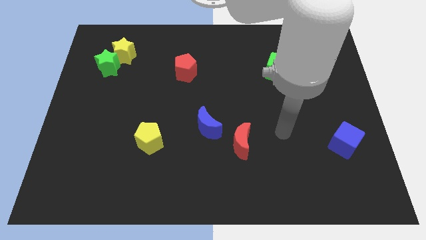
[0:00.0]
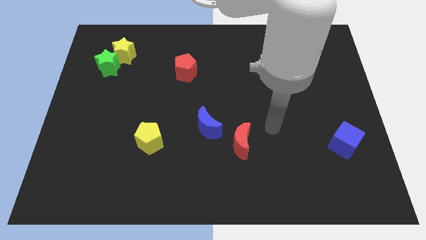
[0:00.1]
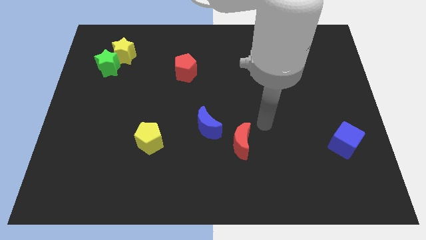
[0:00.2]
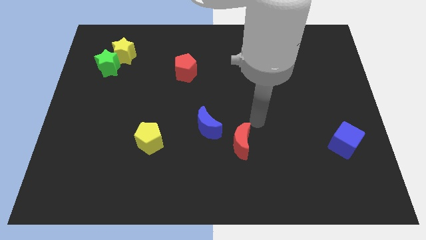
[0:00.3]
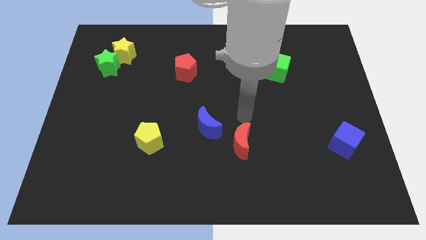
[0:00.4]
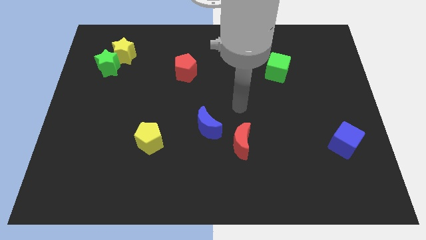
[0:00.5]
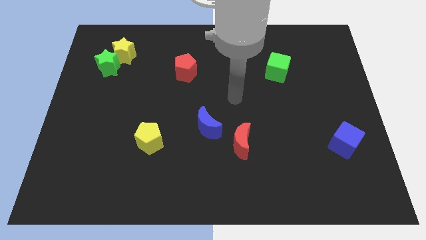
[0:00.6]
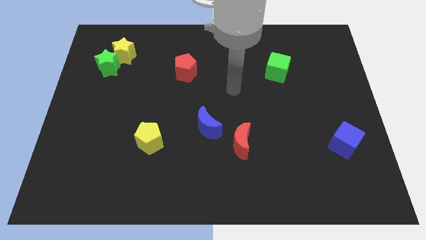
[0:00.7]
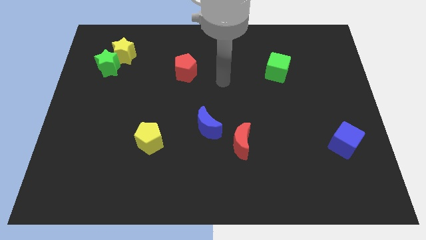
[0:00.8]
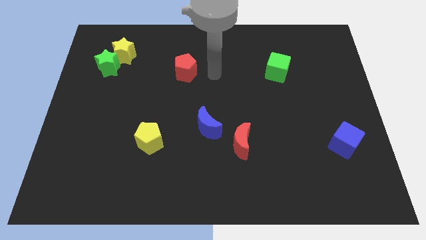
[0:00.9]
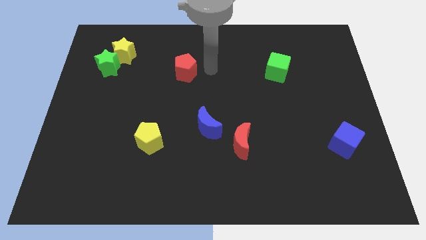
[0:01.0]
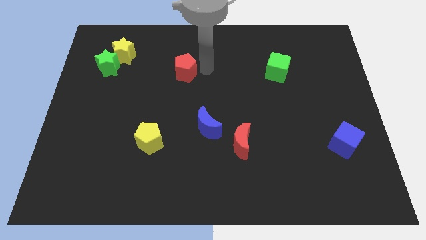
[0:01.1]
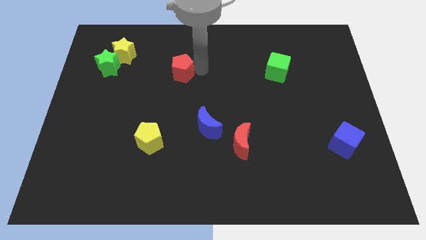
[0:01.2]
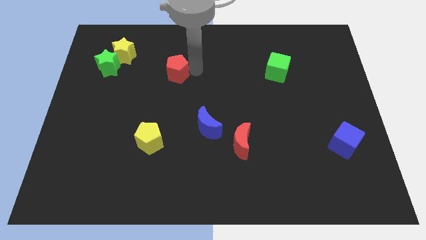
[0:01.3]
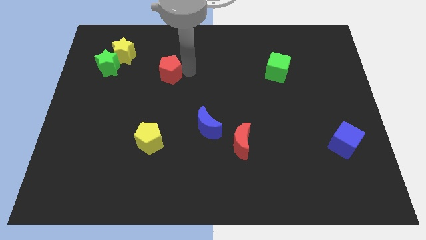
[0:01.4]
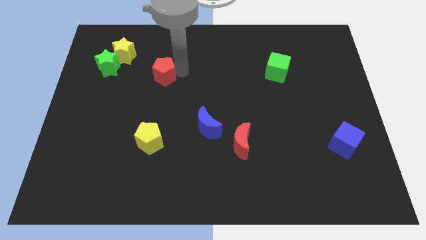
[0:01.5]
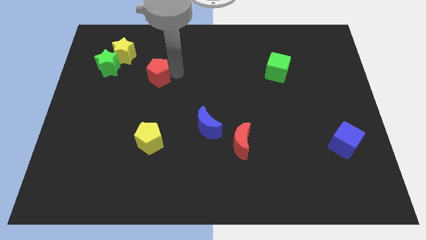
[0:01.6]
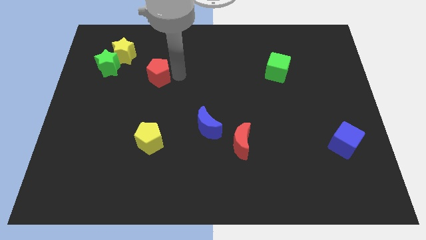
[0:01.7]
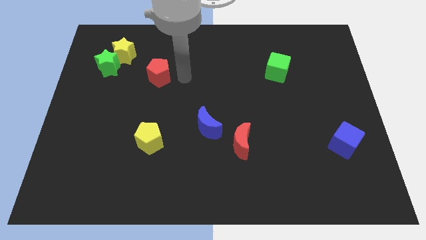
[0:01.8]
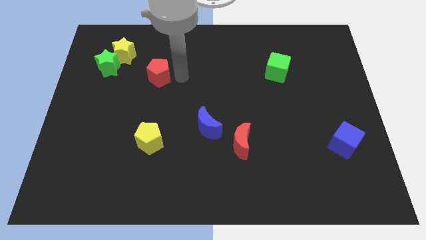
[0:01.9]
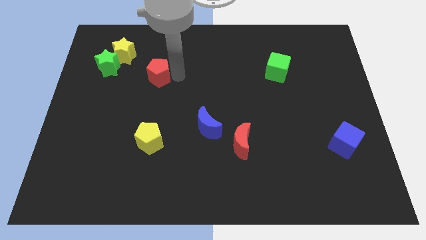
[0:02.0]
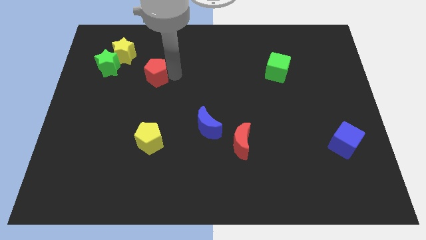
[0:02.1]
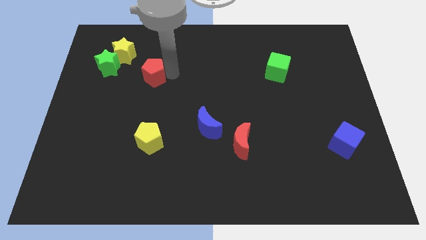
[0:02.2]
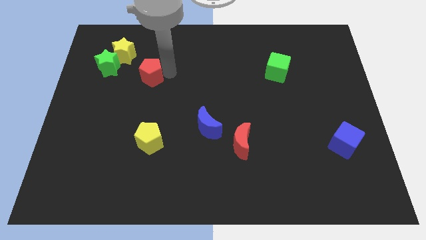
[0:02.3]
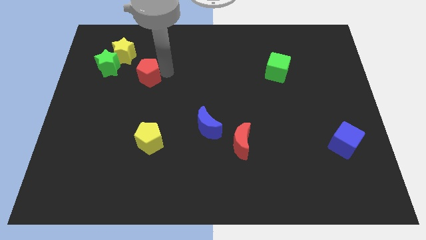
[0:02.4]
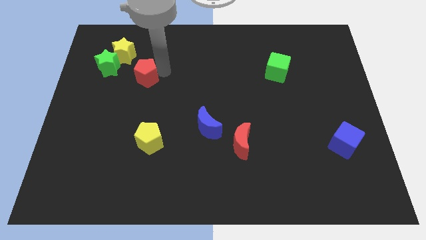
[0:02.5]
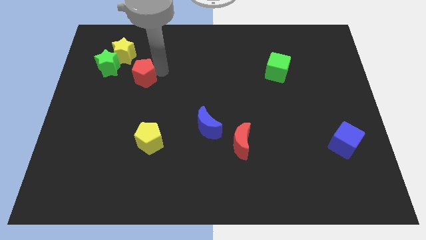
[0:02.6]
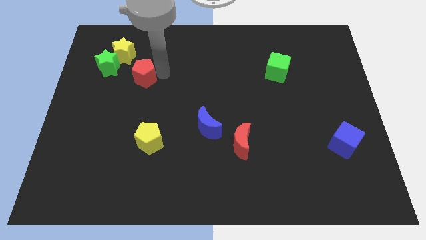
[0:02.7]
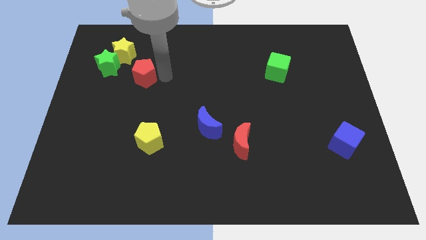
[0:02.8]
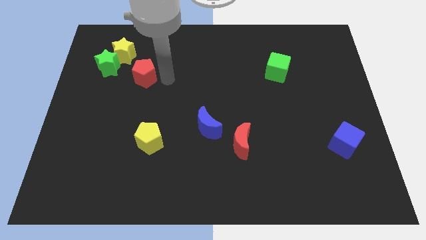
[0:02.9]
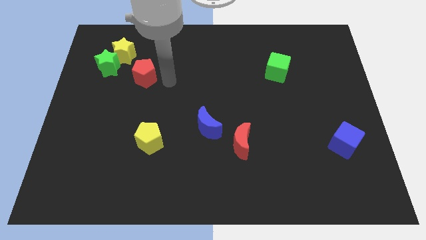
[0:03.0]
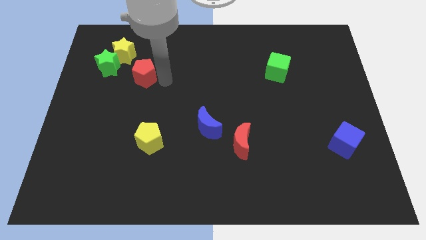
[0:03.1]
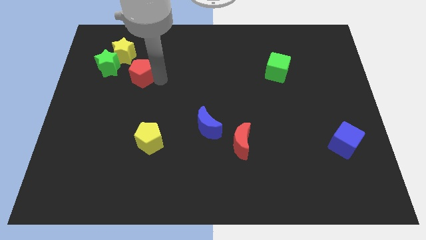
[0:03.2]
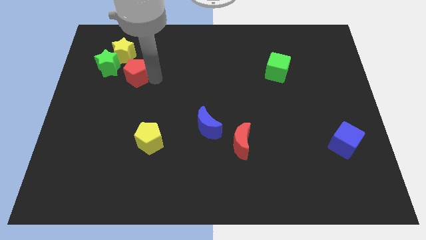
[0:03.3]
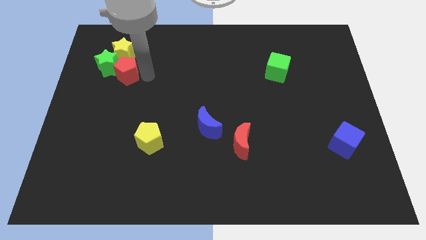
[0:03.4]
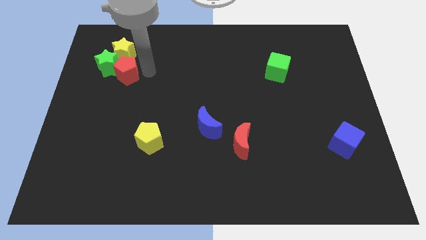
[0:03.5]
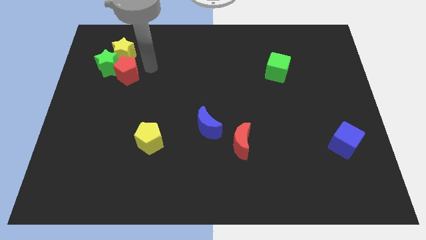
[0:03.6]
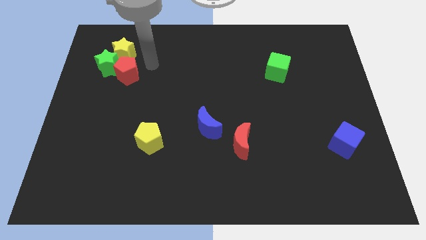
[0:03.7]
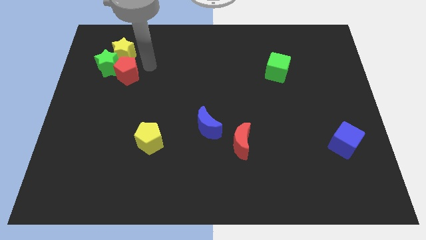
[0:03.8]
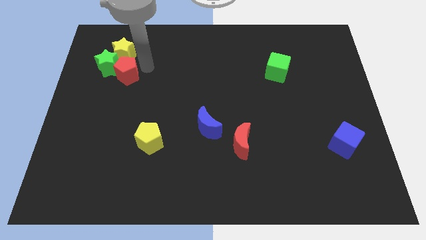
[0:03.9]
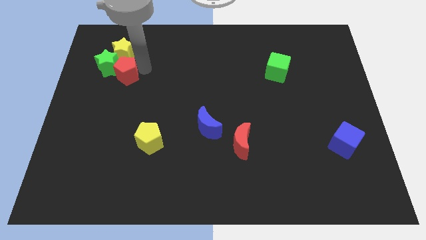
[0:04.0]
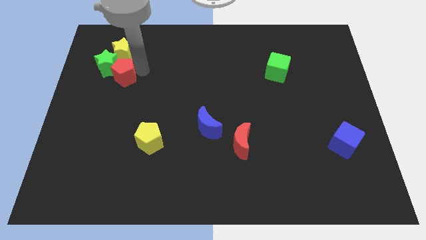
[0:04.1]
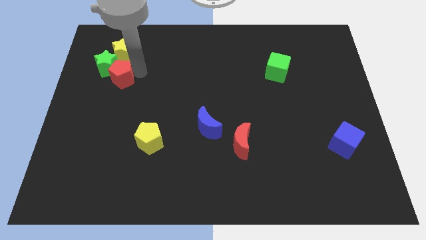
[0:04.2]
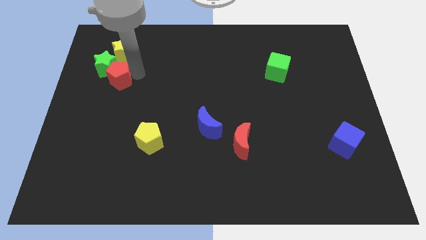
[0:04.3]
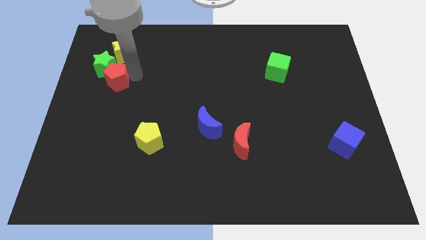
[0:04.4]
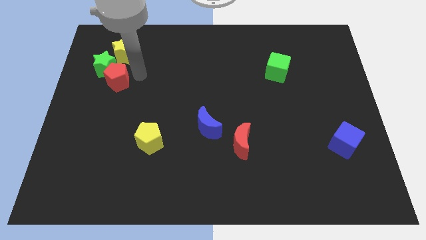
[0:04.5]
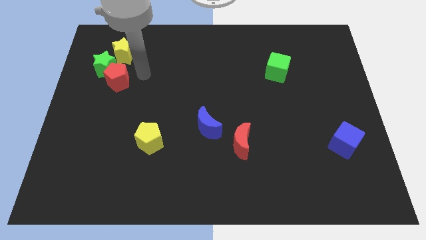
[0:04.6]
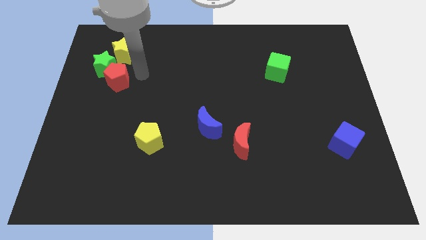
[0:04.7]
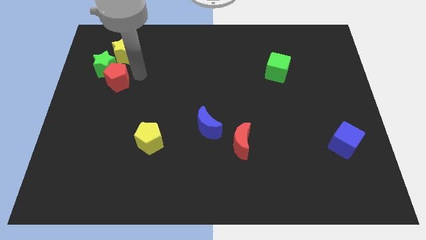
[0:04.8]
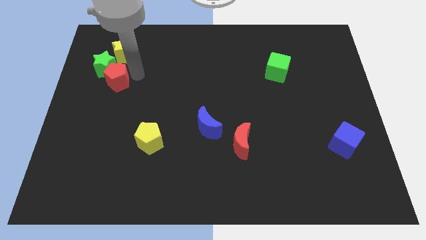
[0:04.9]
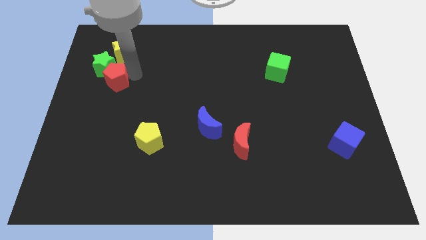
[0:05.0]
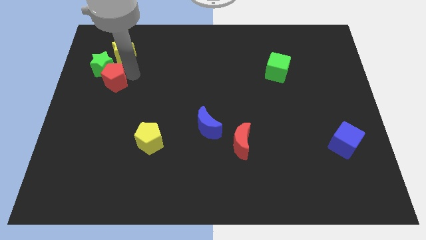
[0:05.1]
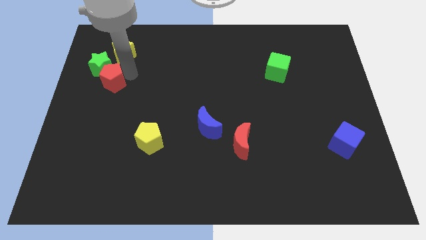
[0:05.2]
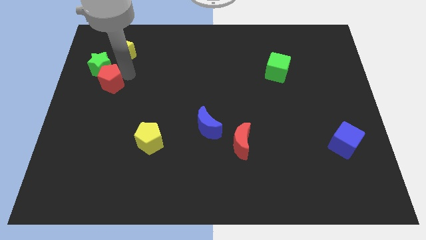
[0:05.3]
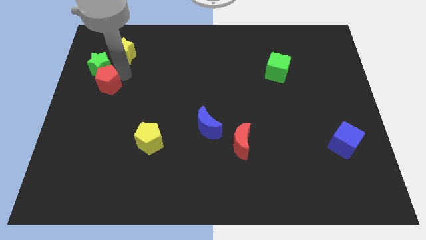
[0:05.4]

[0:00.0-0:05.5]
push the red pentagon to the left side of the board

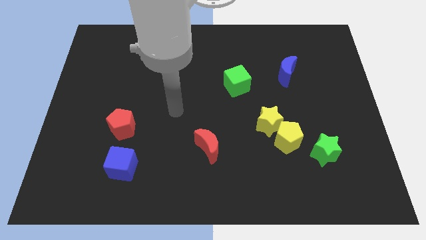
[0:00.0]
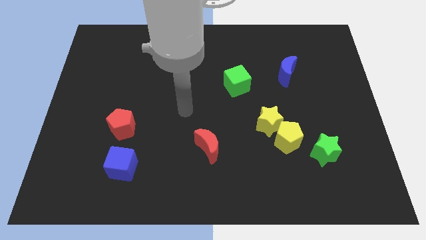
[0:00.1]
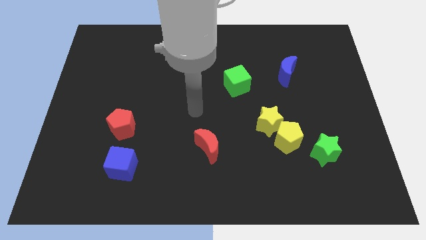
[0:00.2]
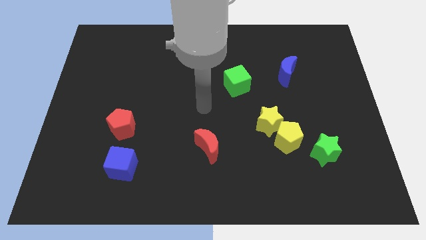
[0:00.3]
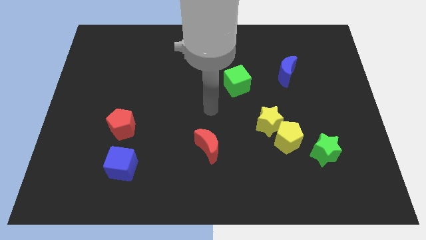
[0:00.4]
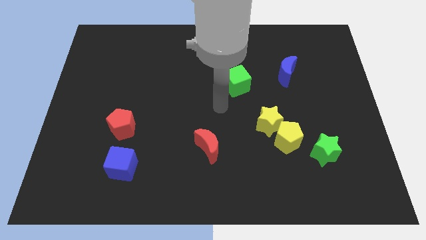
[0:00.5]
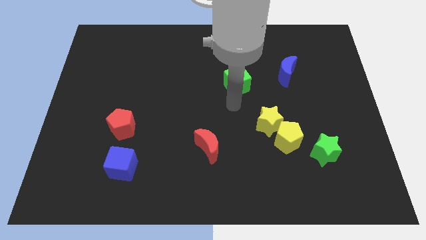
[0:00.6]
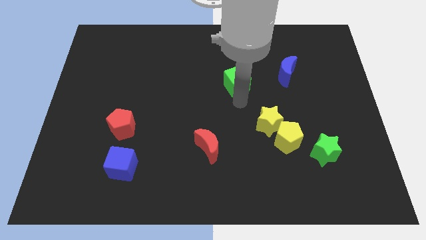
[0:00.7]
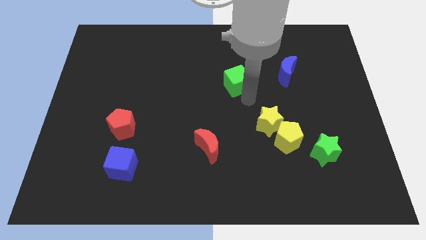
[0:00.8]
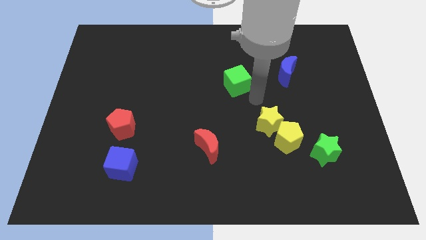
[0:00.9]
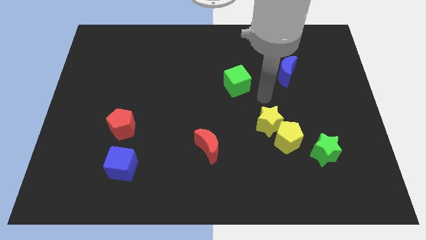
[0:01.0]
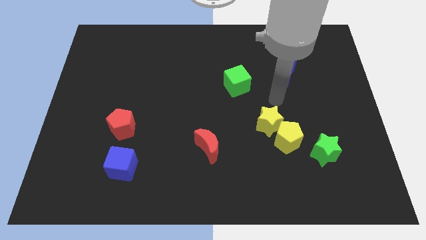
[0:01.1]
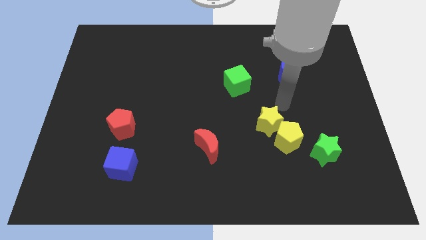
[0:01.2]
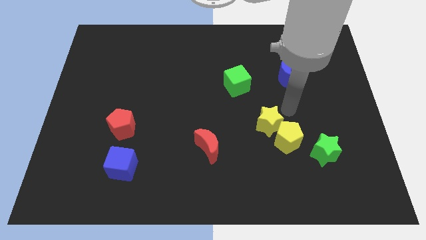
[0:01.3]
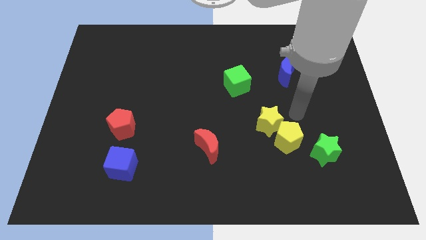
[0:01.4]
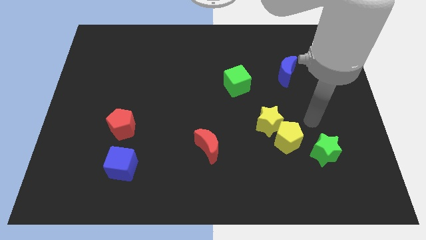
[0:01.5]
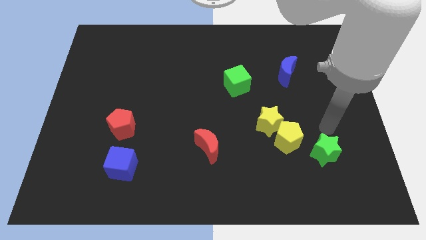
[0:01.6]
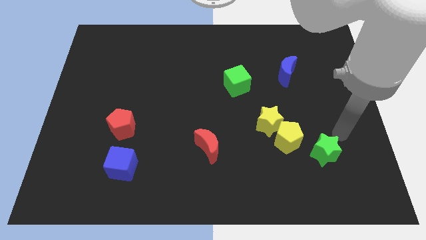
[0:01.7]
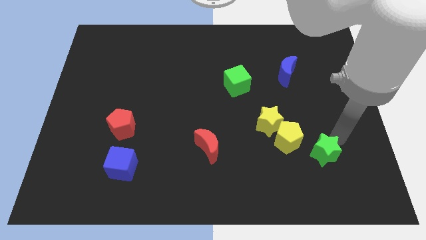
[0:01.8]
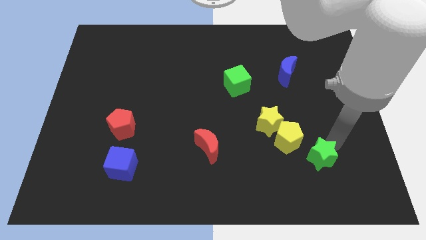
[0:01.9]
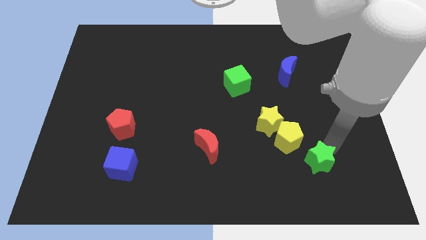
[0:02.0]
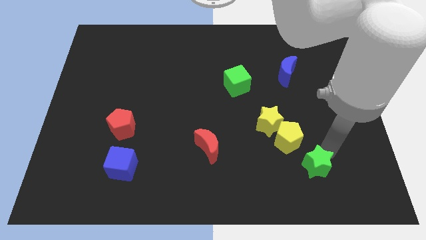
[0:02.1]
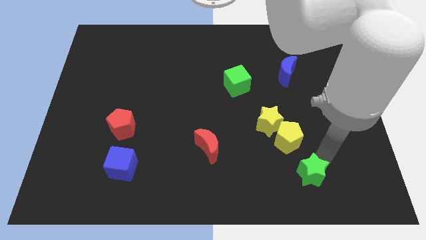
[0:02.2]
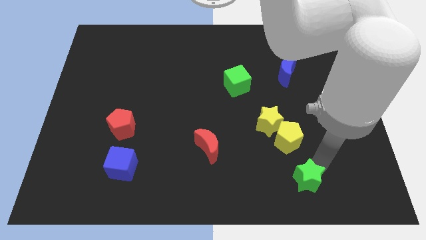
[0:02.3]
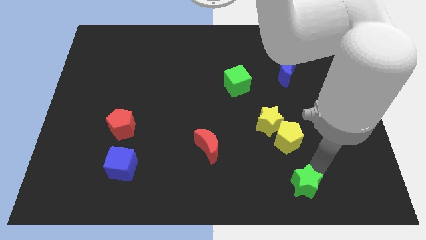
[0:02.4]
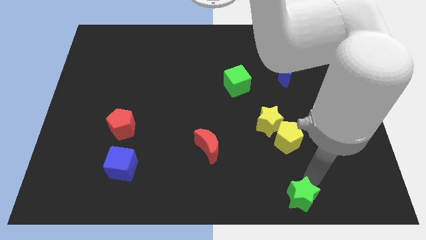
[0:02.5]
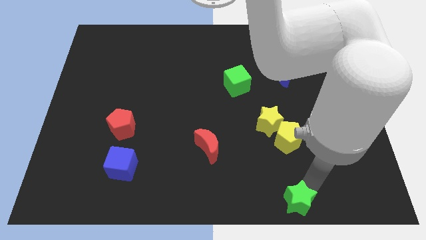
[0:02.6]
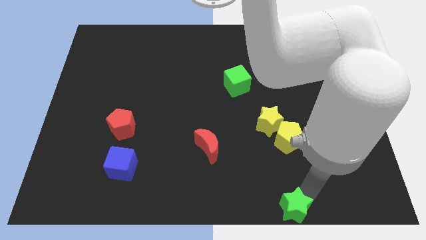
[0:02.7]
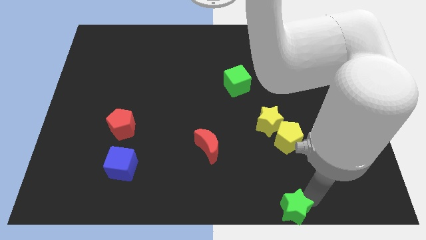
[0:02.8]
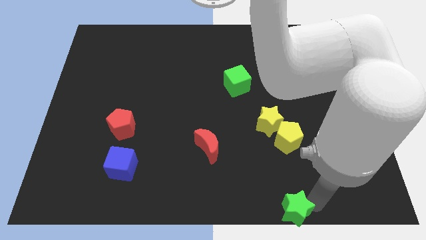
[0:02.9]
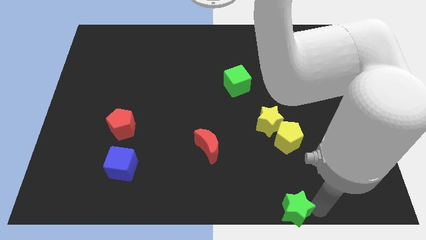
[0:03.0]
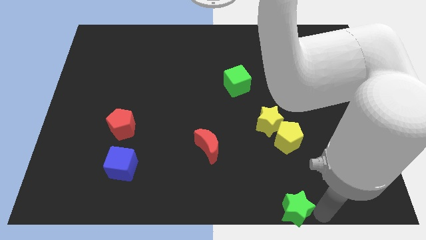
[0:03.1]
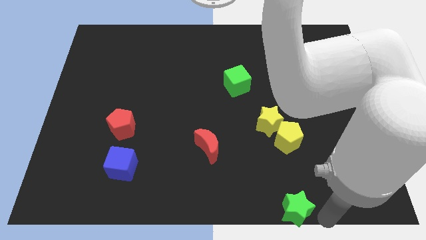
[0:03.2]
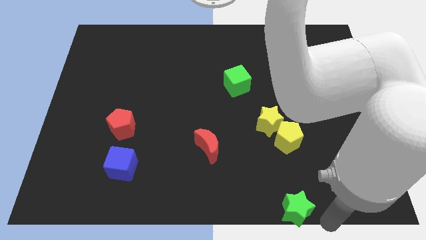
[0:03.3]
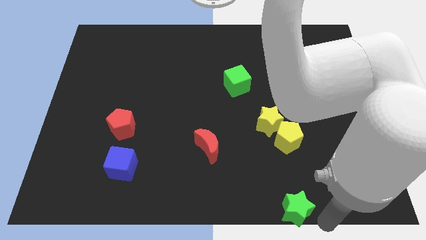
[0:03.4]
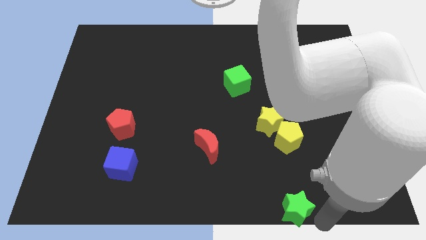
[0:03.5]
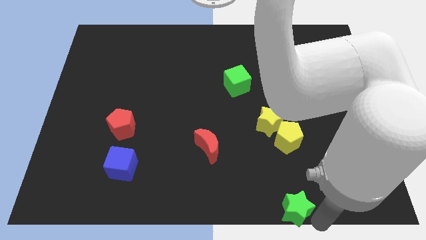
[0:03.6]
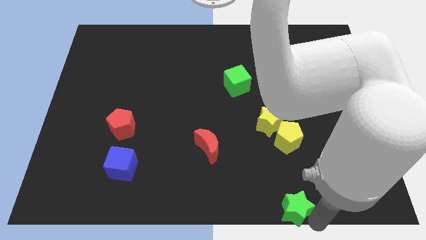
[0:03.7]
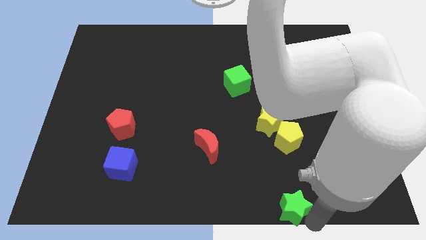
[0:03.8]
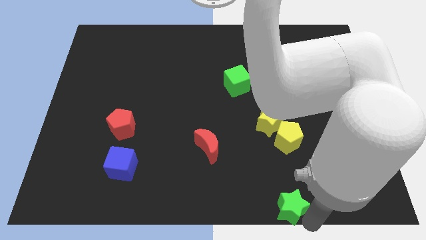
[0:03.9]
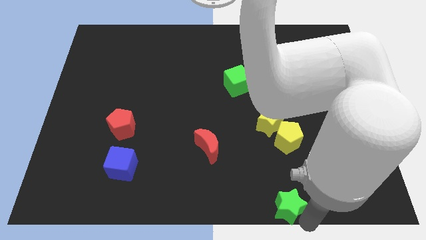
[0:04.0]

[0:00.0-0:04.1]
push the green star to the bottom side
